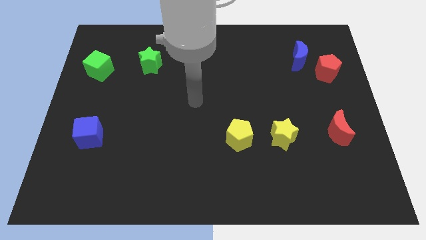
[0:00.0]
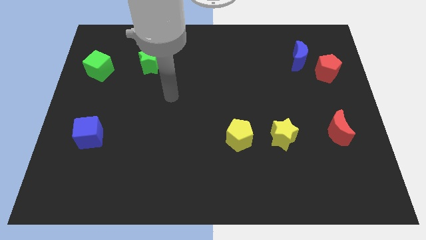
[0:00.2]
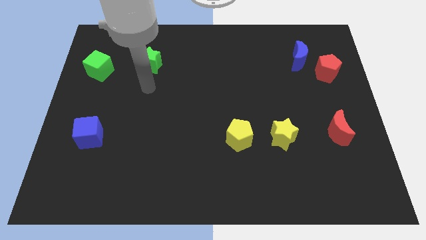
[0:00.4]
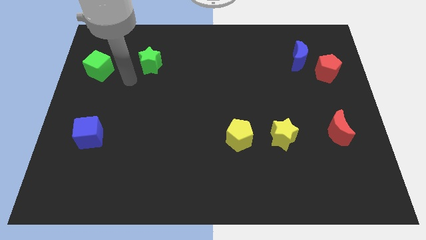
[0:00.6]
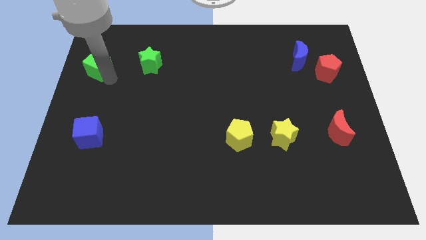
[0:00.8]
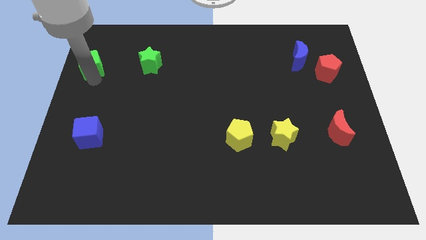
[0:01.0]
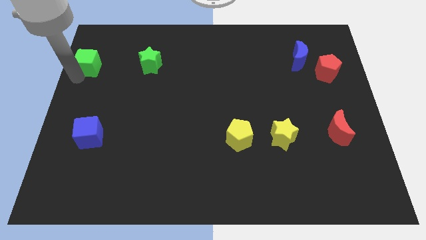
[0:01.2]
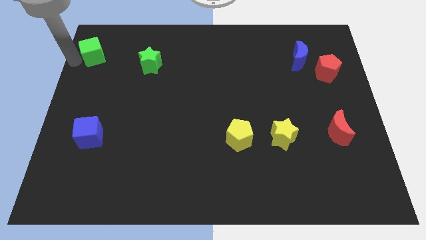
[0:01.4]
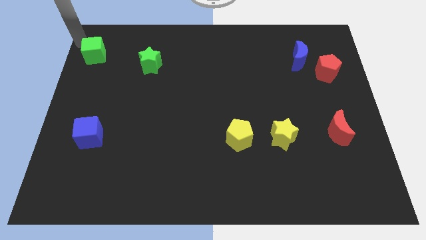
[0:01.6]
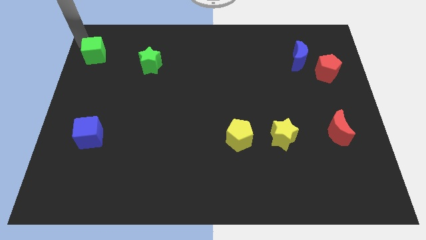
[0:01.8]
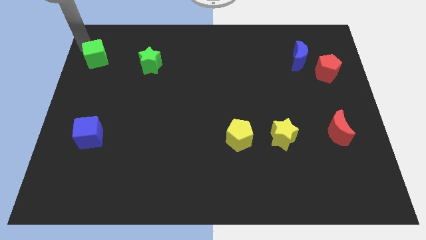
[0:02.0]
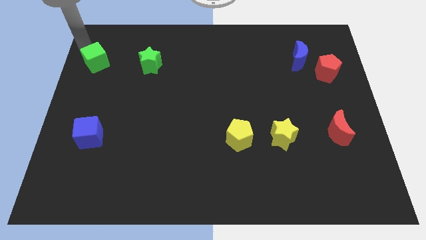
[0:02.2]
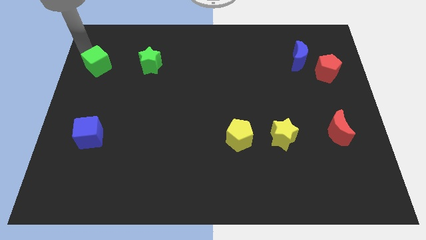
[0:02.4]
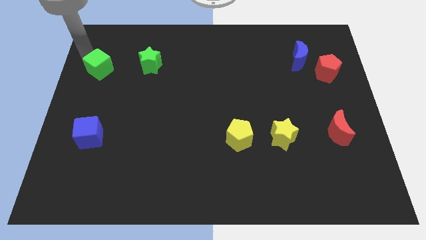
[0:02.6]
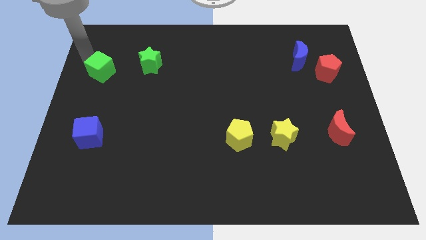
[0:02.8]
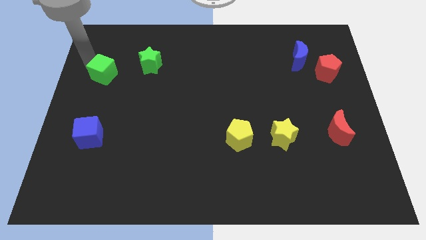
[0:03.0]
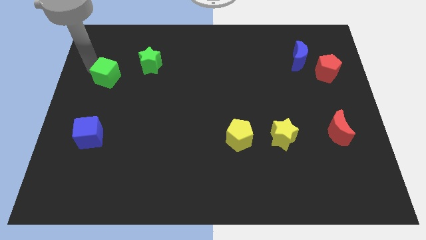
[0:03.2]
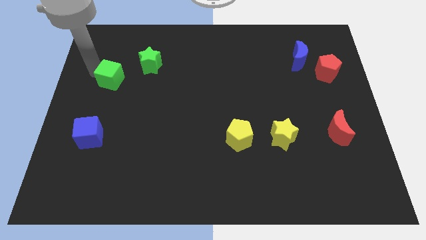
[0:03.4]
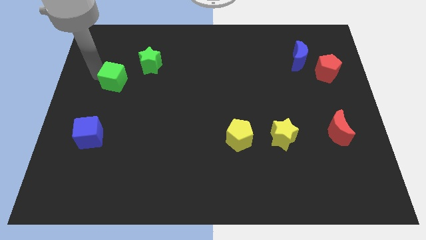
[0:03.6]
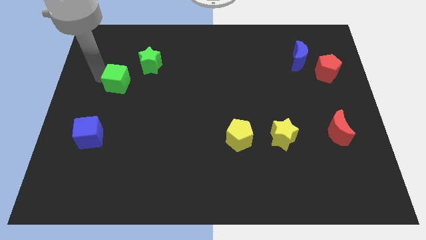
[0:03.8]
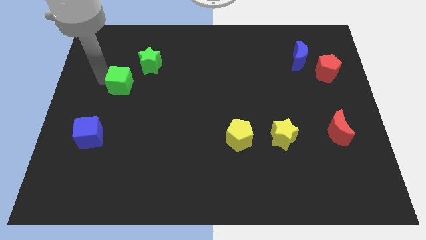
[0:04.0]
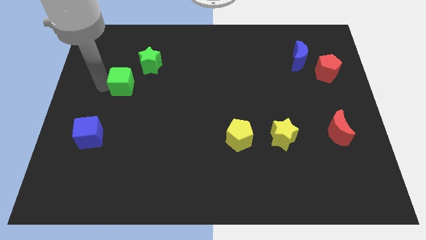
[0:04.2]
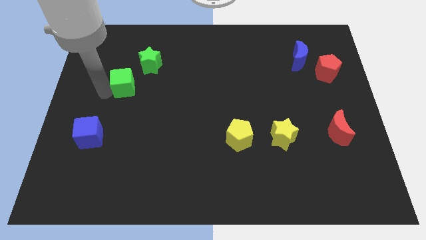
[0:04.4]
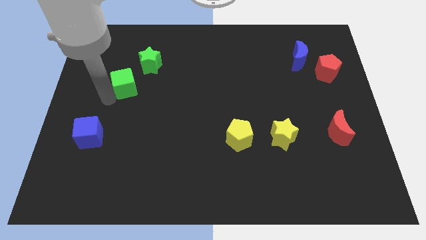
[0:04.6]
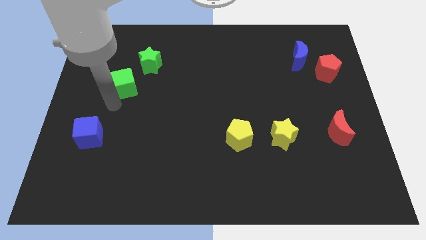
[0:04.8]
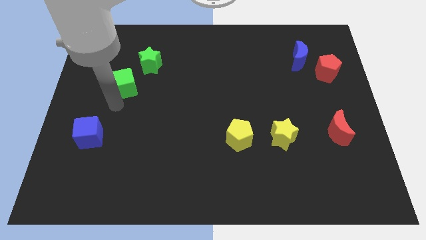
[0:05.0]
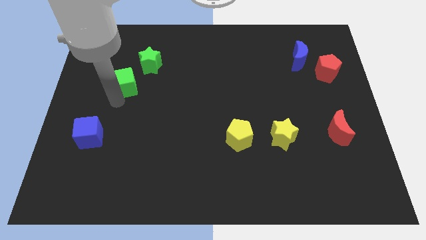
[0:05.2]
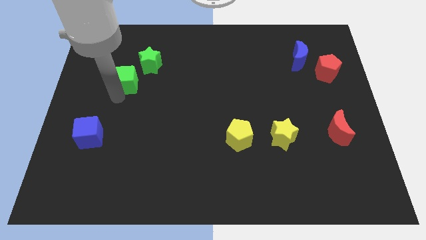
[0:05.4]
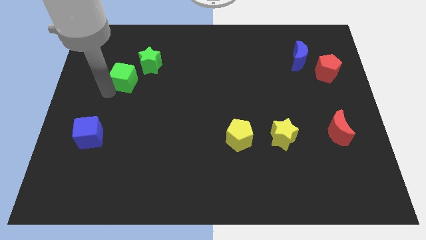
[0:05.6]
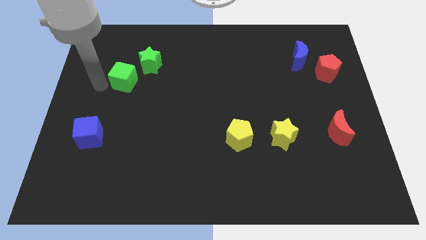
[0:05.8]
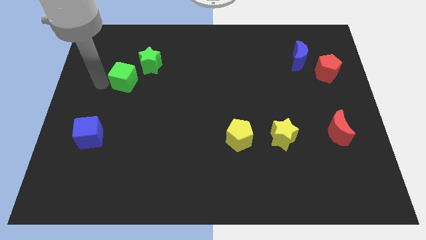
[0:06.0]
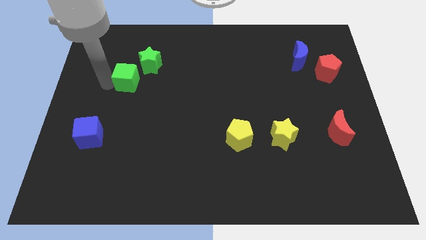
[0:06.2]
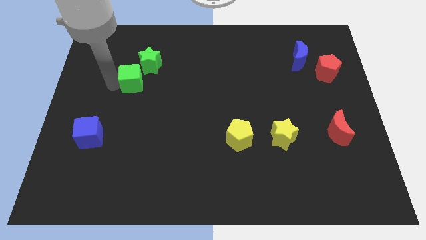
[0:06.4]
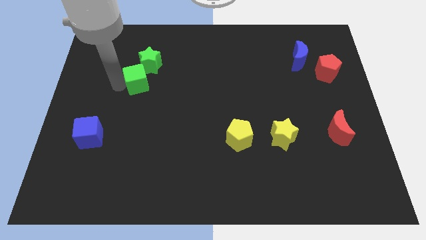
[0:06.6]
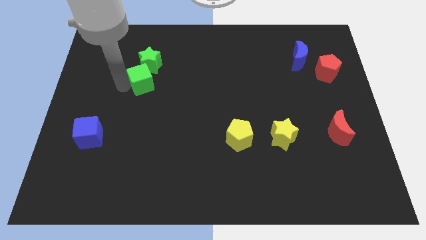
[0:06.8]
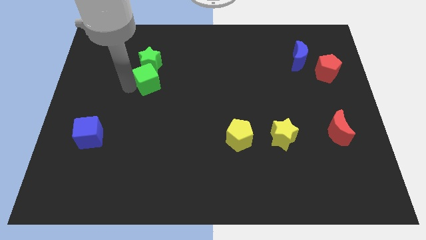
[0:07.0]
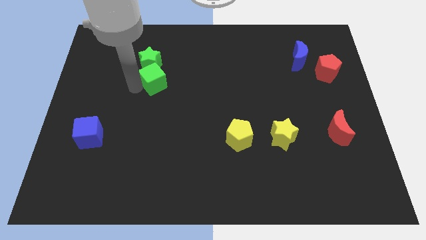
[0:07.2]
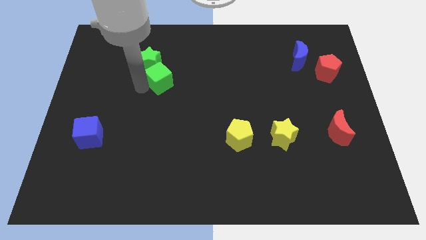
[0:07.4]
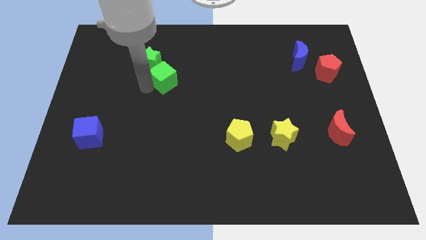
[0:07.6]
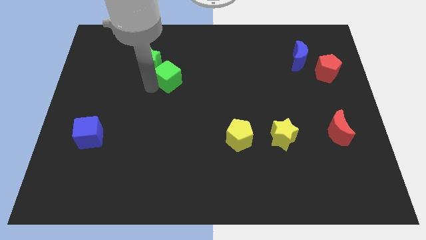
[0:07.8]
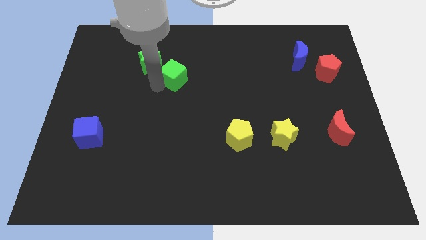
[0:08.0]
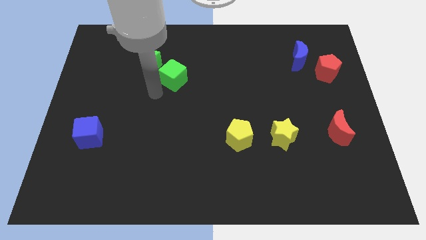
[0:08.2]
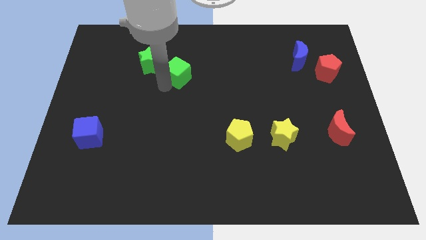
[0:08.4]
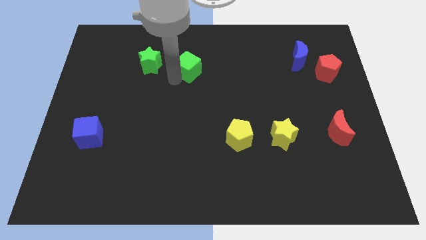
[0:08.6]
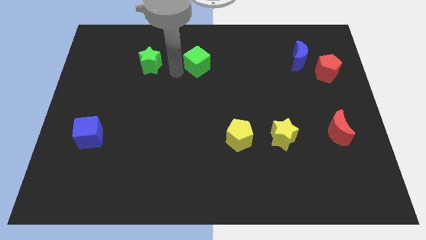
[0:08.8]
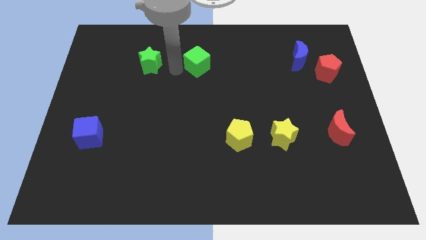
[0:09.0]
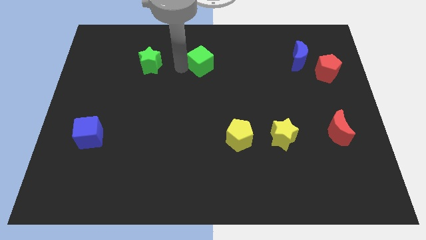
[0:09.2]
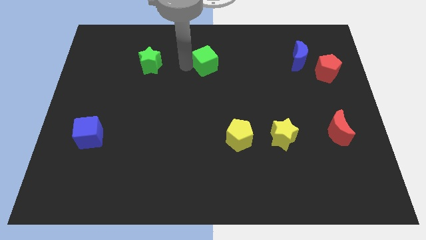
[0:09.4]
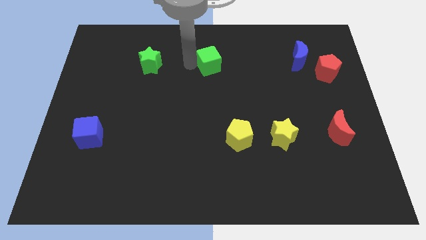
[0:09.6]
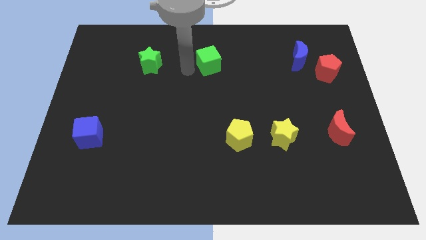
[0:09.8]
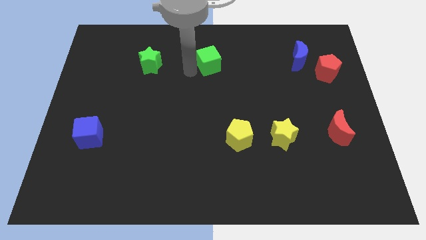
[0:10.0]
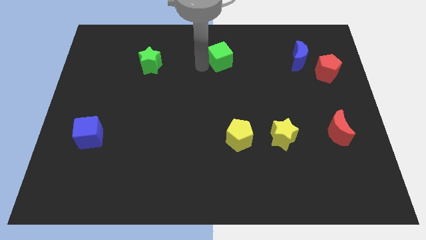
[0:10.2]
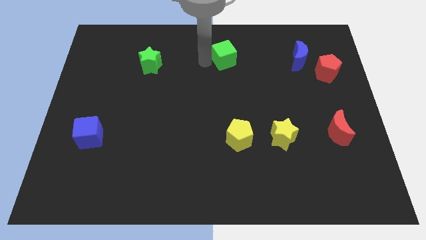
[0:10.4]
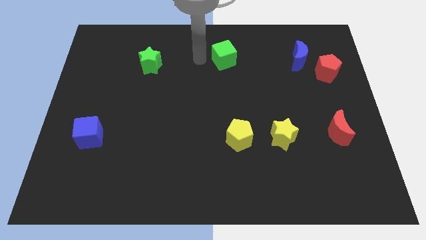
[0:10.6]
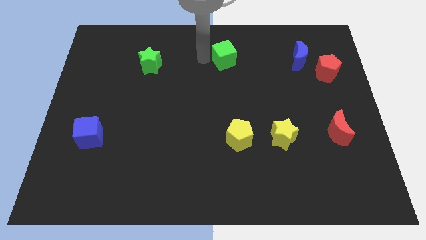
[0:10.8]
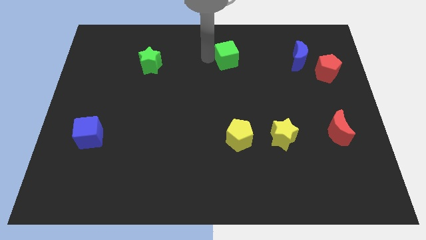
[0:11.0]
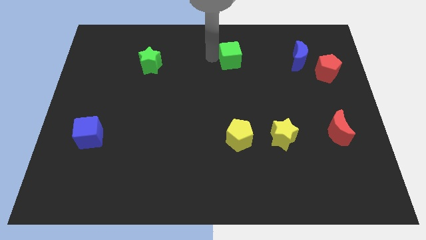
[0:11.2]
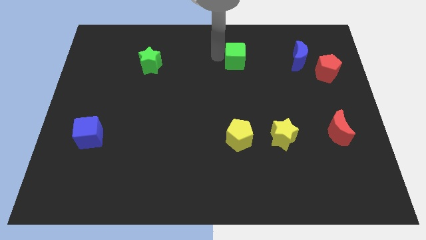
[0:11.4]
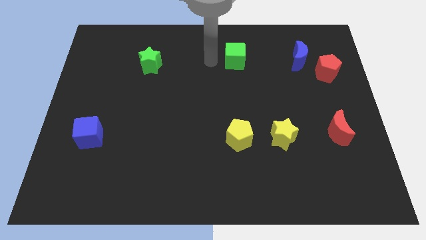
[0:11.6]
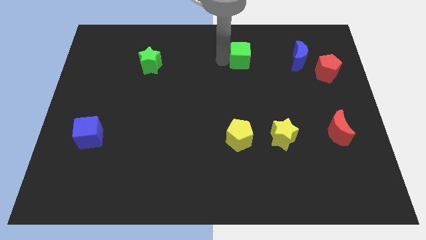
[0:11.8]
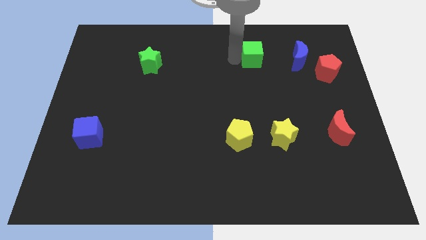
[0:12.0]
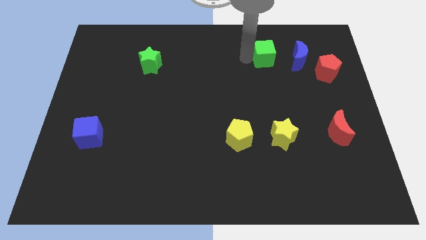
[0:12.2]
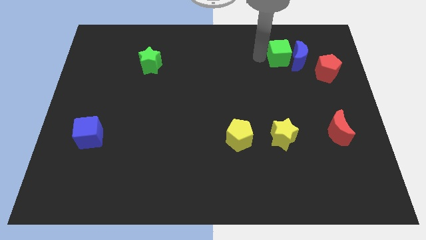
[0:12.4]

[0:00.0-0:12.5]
slide the green cube close to the blue moon

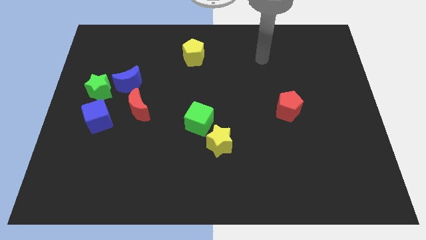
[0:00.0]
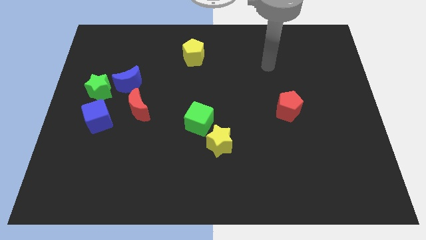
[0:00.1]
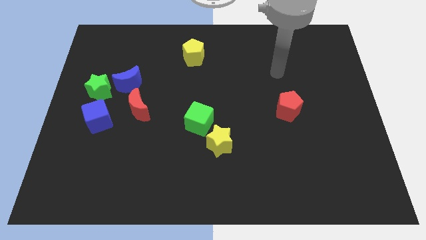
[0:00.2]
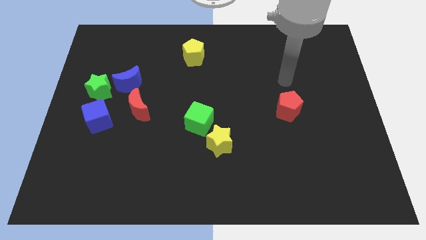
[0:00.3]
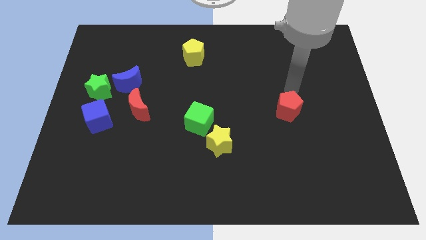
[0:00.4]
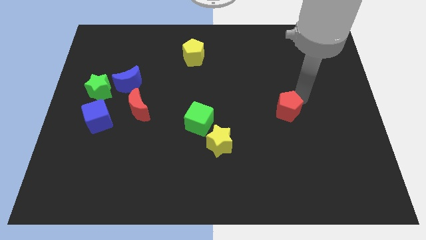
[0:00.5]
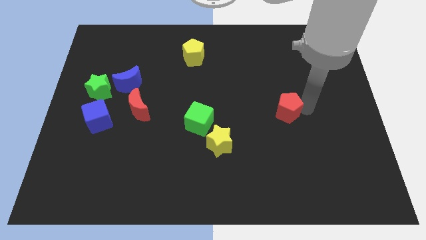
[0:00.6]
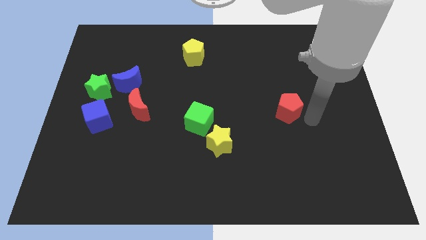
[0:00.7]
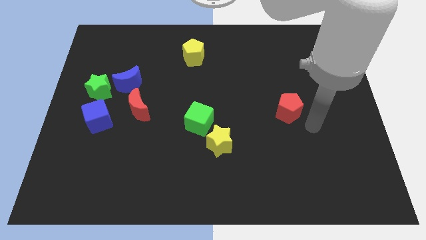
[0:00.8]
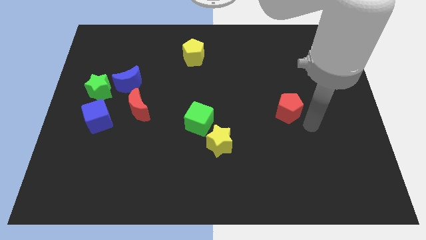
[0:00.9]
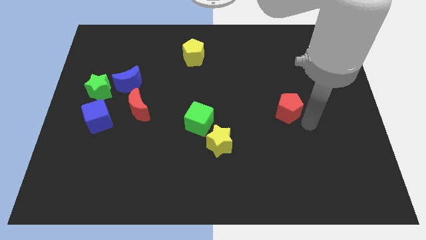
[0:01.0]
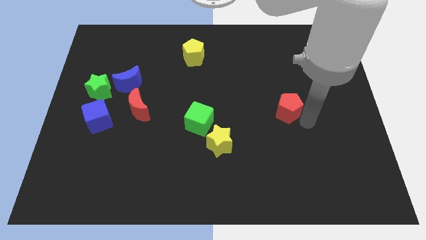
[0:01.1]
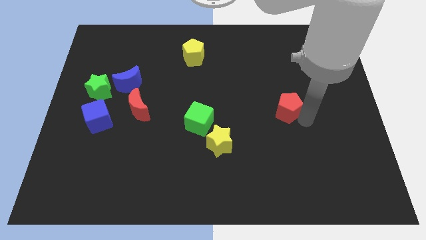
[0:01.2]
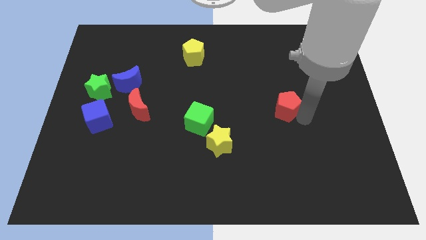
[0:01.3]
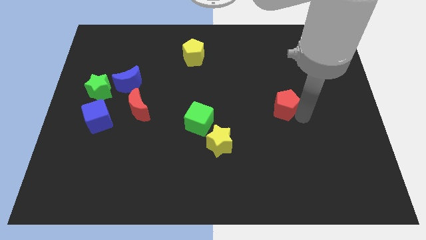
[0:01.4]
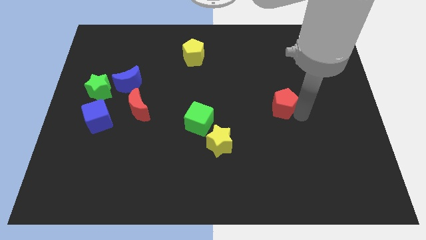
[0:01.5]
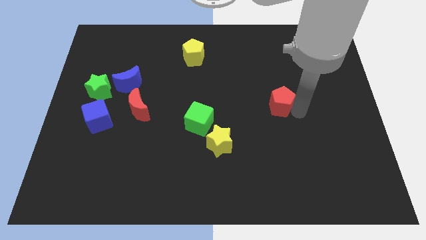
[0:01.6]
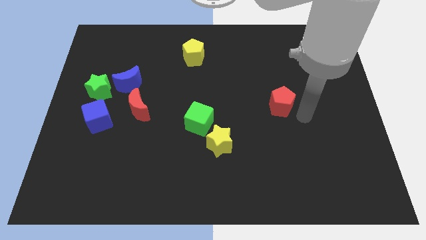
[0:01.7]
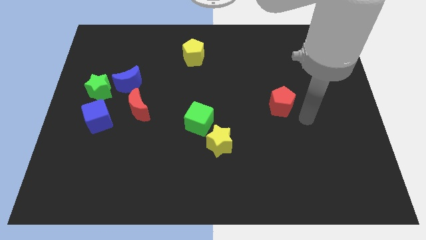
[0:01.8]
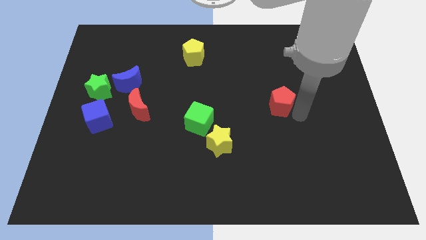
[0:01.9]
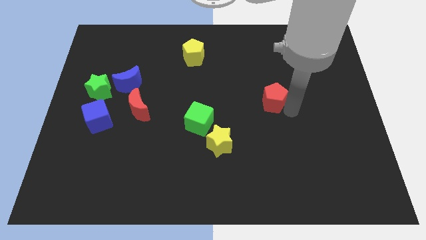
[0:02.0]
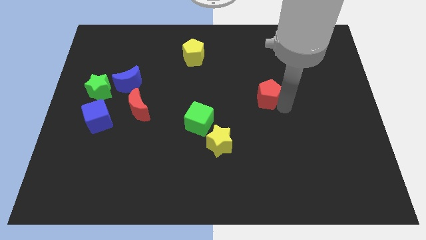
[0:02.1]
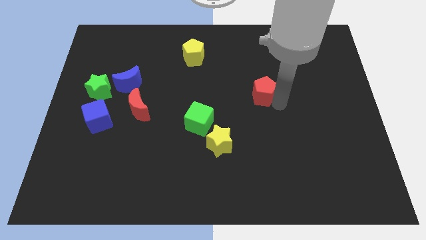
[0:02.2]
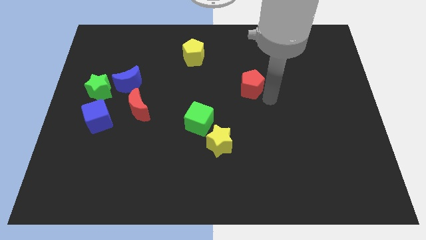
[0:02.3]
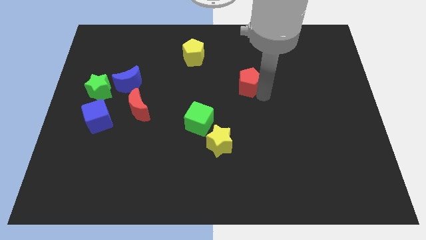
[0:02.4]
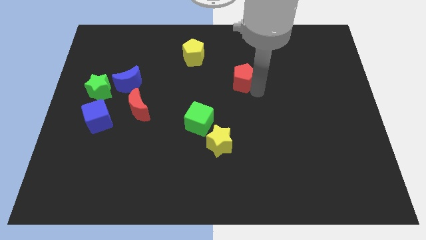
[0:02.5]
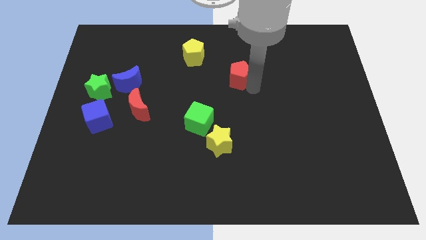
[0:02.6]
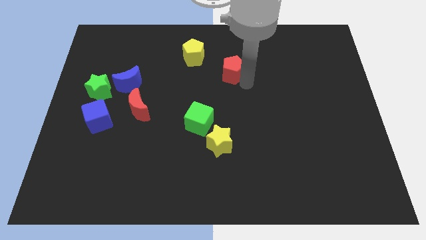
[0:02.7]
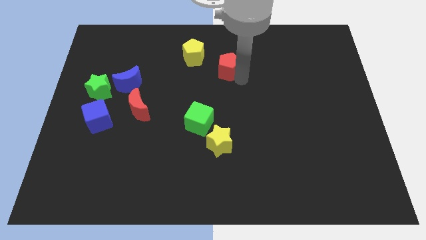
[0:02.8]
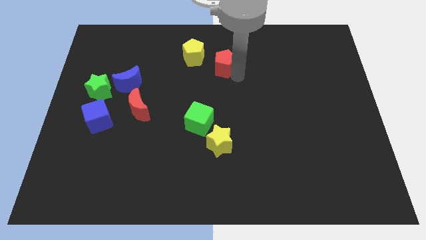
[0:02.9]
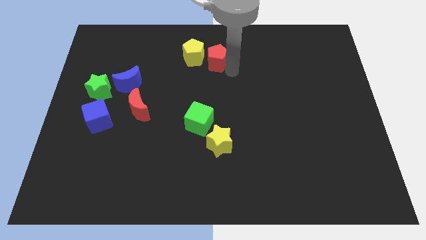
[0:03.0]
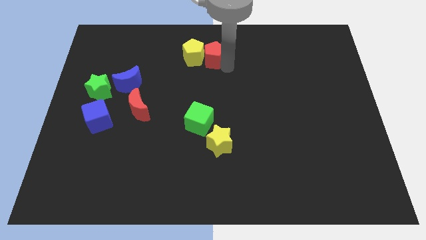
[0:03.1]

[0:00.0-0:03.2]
push the red pentagon next to the yellow pentagon
